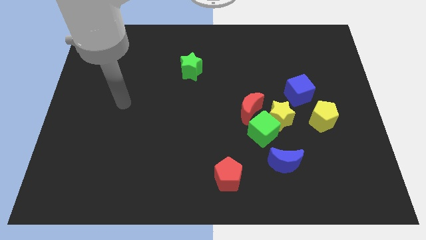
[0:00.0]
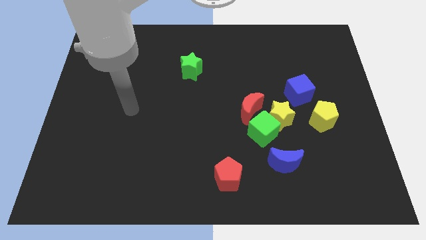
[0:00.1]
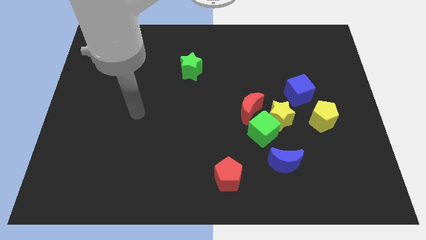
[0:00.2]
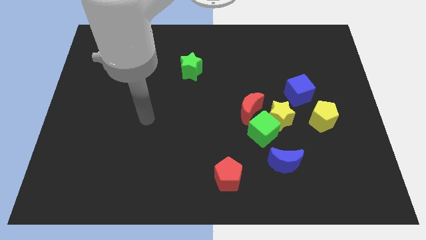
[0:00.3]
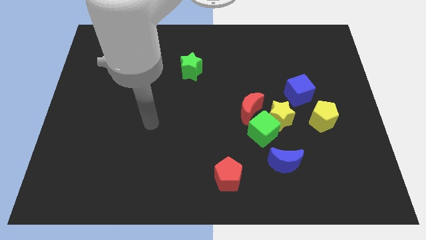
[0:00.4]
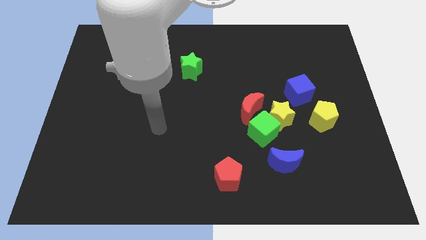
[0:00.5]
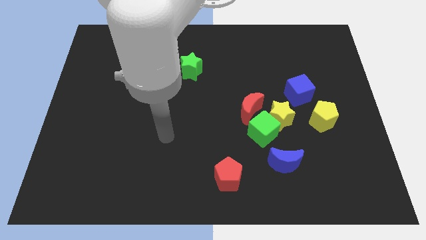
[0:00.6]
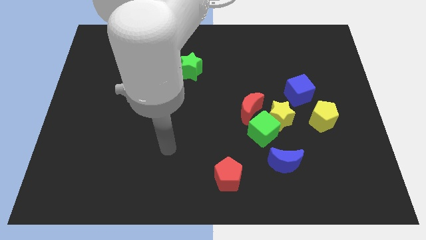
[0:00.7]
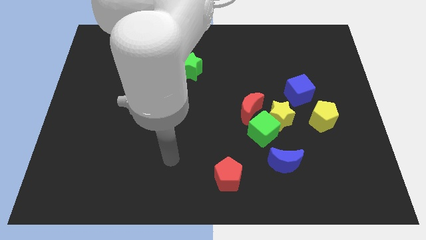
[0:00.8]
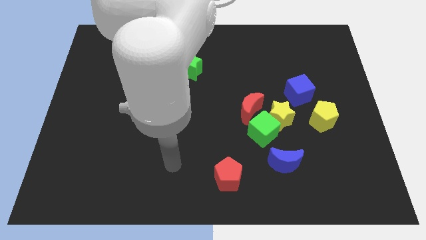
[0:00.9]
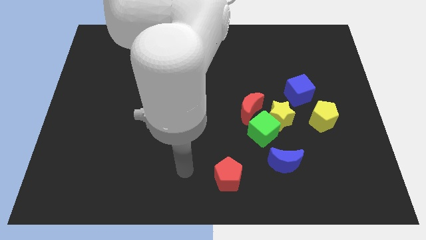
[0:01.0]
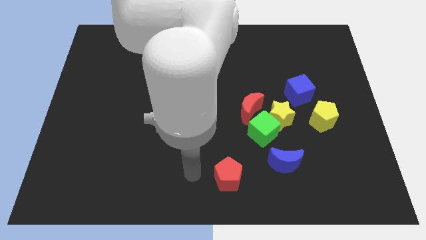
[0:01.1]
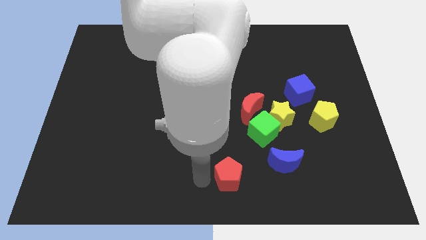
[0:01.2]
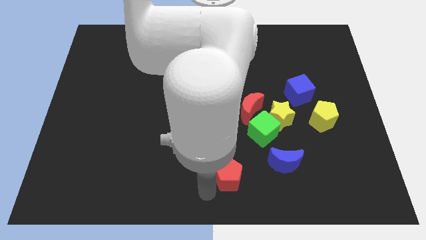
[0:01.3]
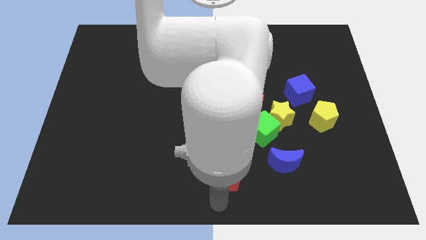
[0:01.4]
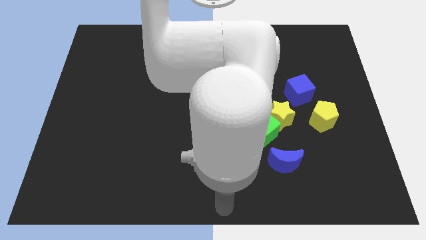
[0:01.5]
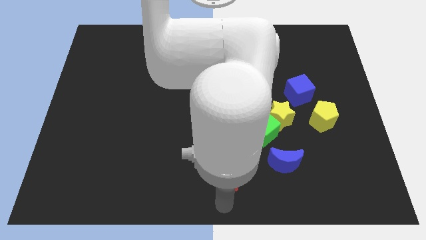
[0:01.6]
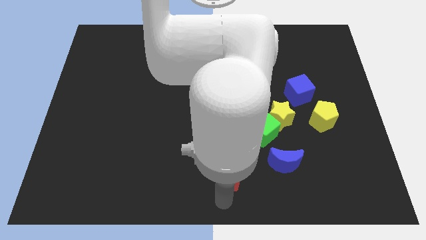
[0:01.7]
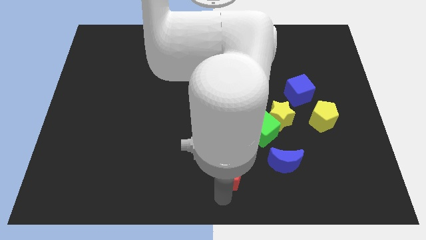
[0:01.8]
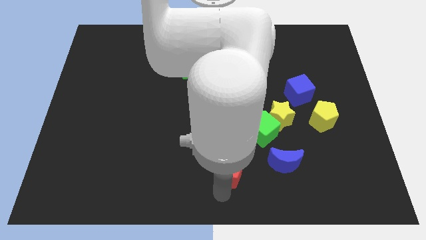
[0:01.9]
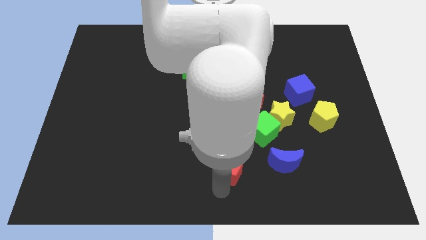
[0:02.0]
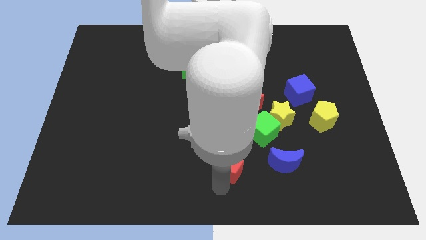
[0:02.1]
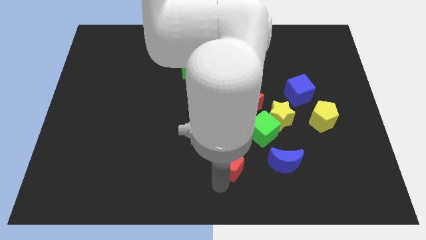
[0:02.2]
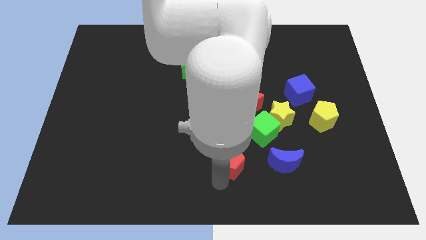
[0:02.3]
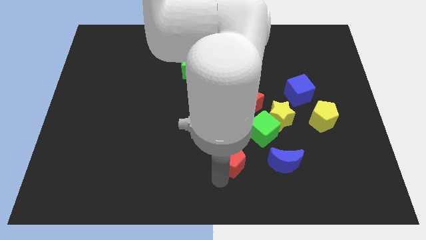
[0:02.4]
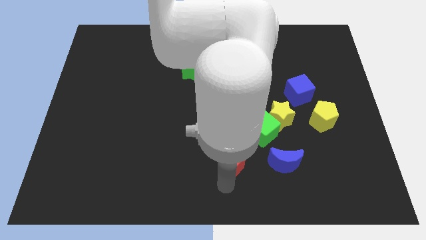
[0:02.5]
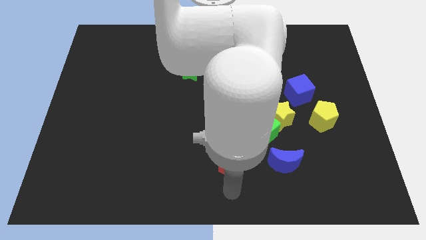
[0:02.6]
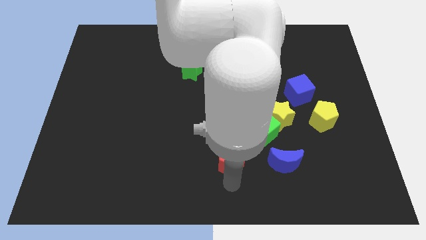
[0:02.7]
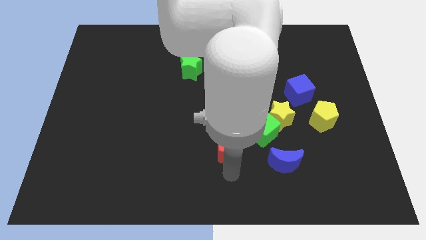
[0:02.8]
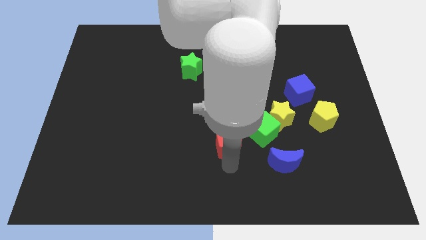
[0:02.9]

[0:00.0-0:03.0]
slightly slide the red pentagon upwards

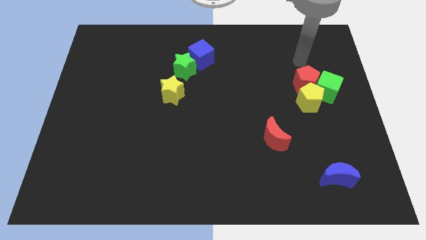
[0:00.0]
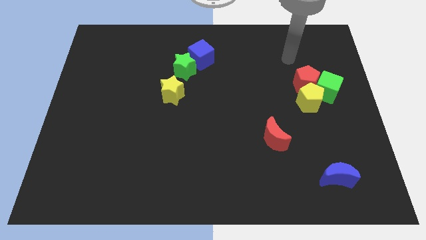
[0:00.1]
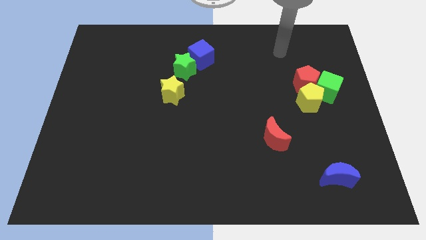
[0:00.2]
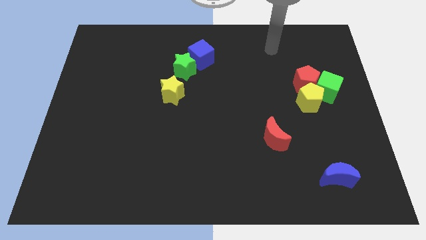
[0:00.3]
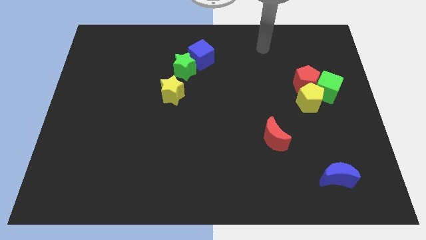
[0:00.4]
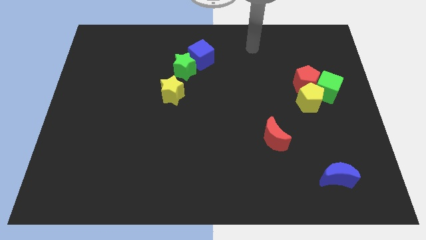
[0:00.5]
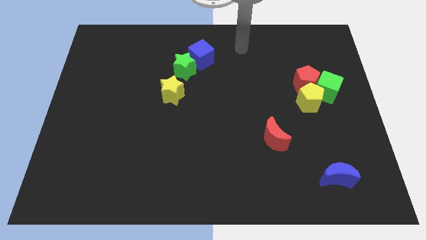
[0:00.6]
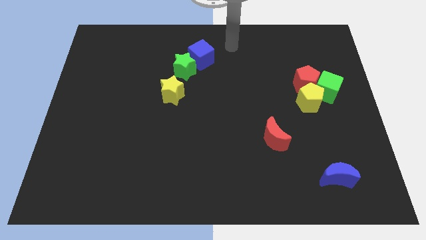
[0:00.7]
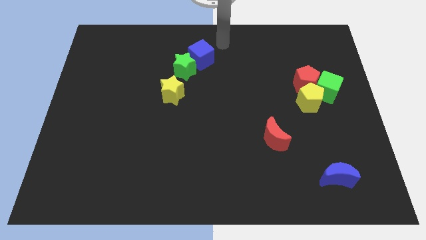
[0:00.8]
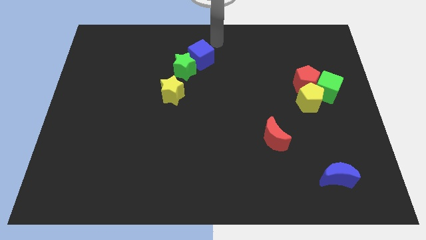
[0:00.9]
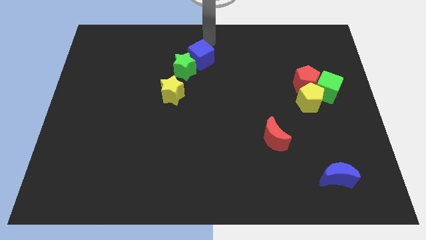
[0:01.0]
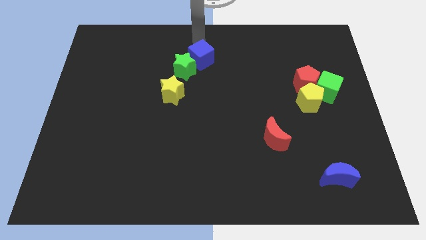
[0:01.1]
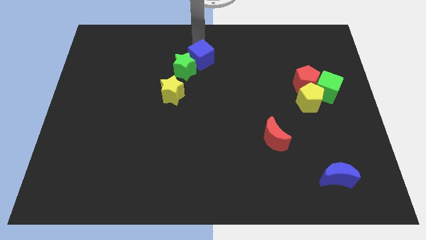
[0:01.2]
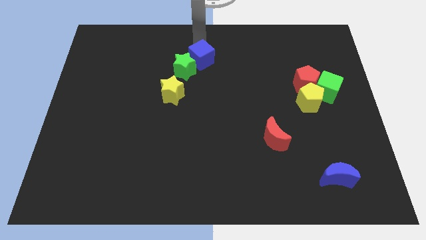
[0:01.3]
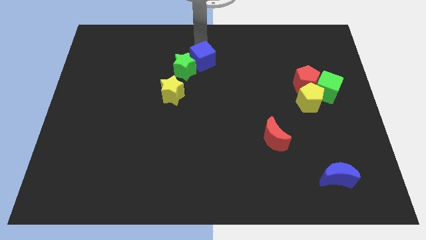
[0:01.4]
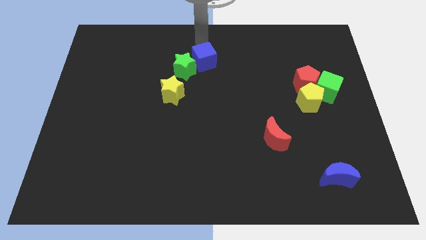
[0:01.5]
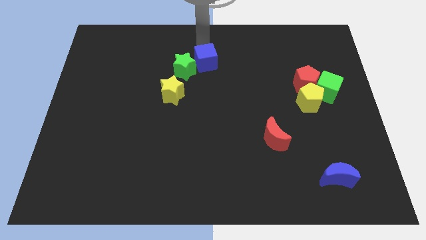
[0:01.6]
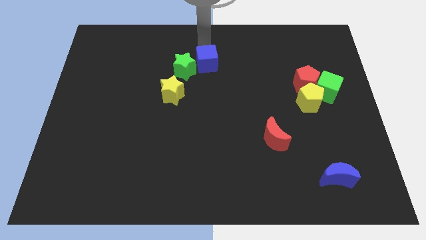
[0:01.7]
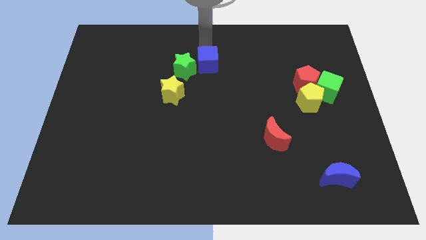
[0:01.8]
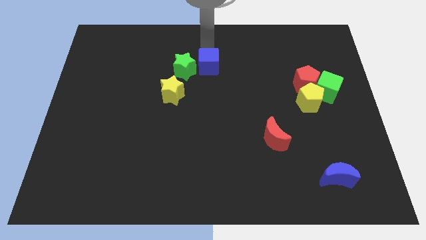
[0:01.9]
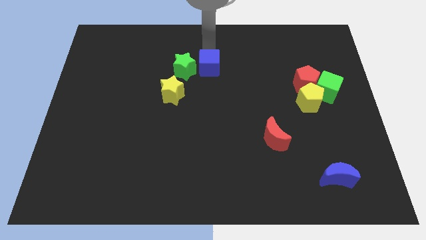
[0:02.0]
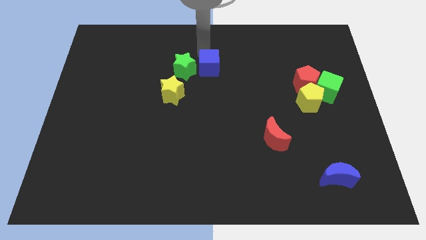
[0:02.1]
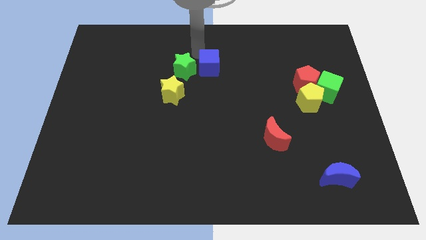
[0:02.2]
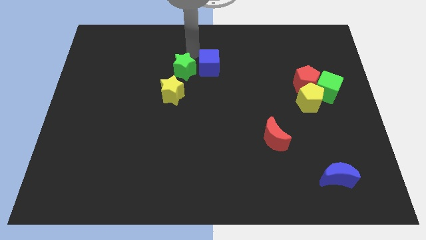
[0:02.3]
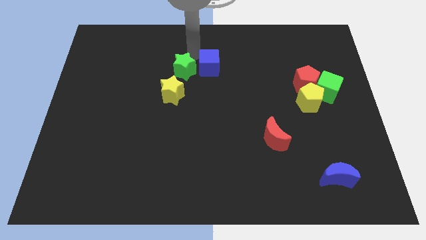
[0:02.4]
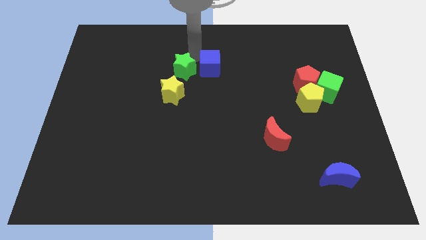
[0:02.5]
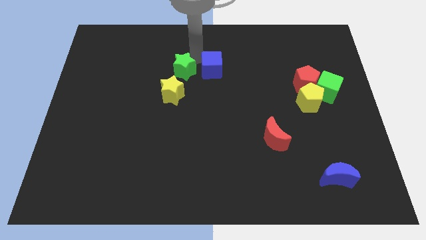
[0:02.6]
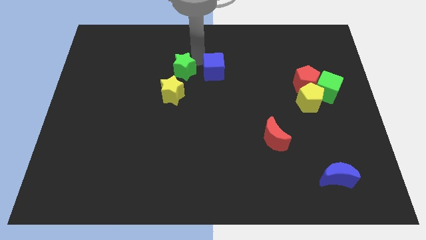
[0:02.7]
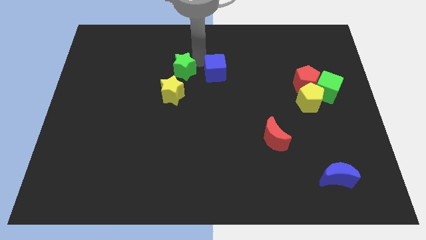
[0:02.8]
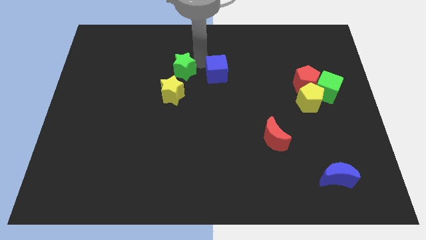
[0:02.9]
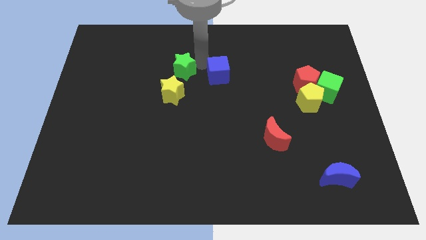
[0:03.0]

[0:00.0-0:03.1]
move the blue cube slightly downwards and right diagonally

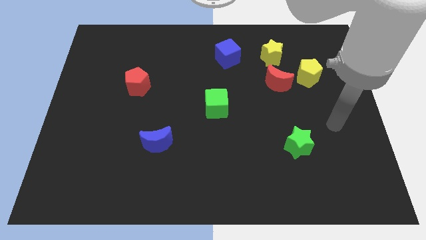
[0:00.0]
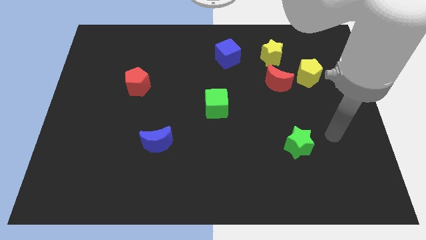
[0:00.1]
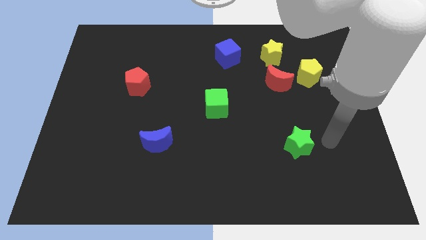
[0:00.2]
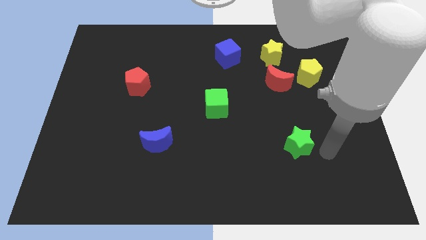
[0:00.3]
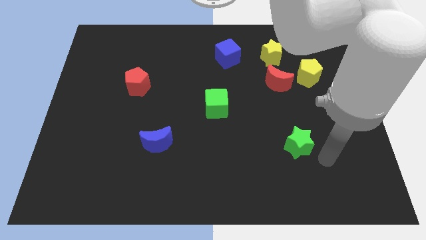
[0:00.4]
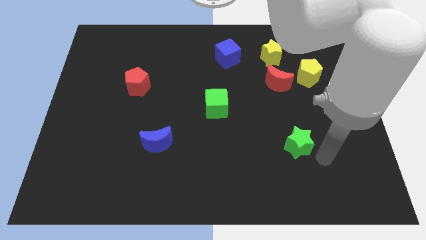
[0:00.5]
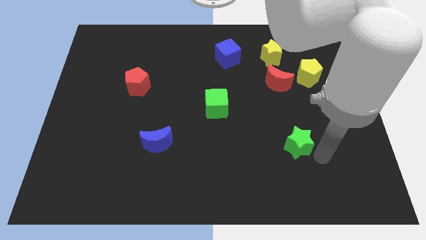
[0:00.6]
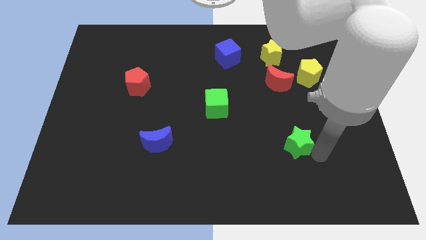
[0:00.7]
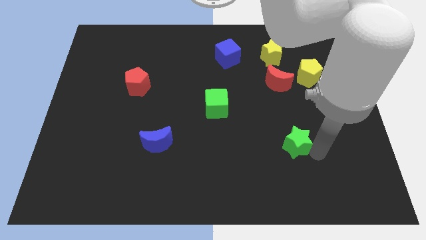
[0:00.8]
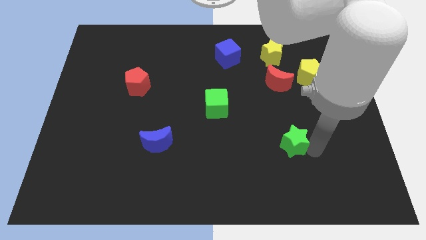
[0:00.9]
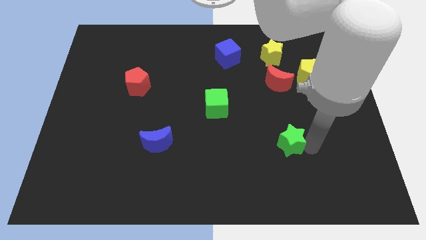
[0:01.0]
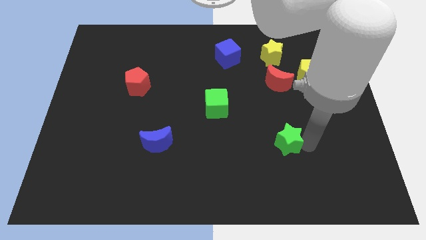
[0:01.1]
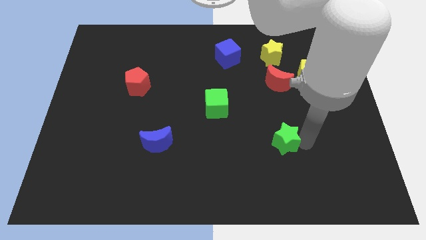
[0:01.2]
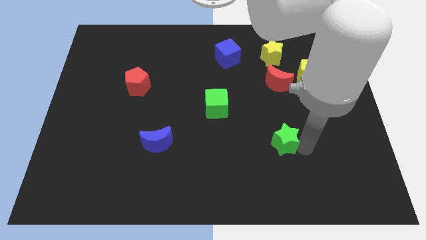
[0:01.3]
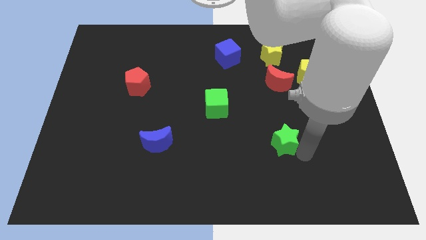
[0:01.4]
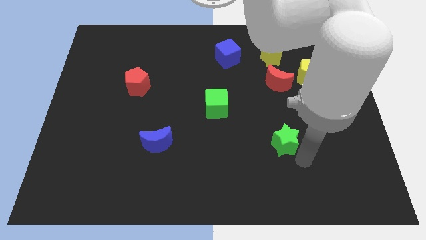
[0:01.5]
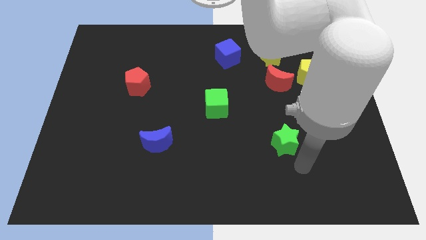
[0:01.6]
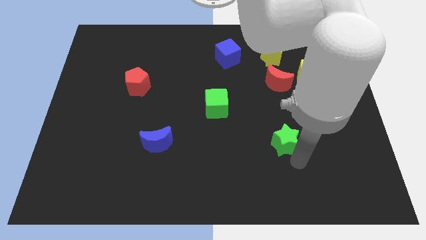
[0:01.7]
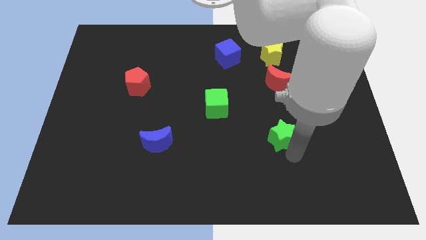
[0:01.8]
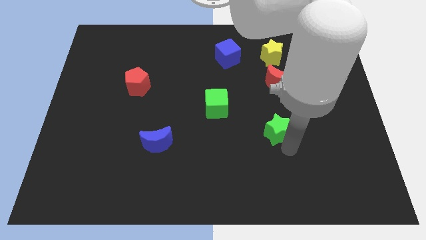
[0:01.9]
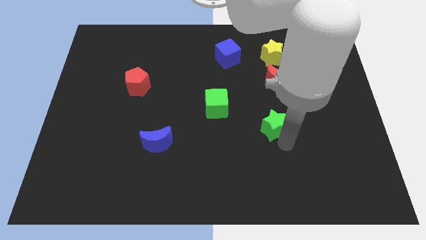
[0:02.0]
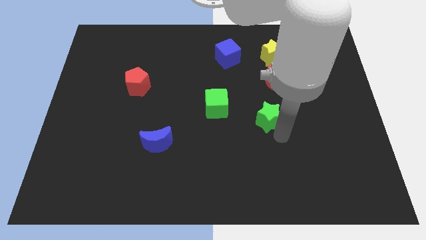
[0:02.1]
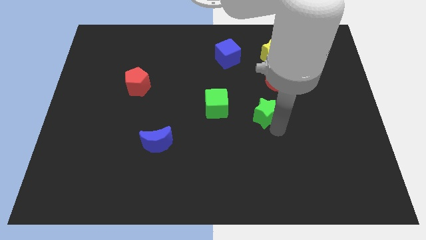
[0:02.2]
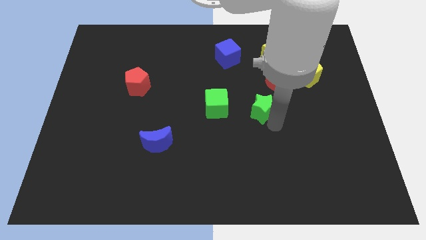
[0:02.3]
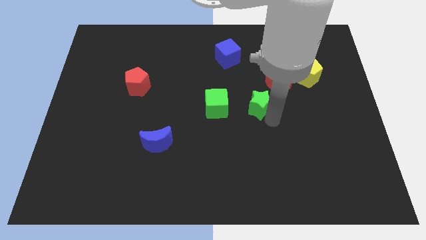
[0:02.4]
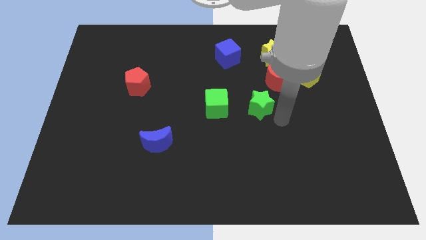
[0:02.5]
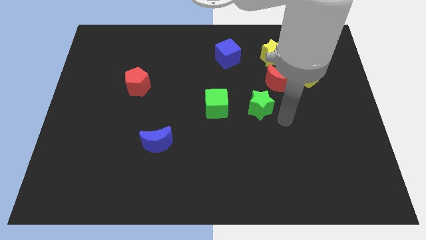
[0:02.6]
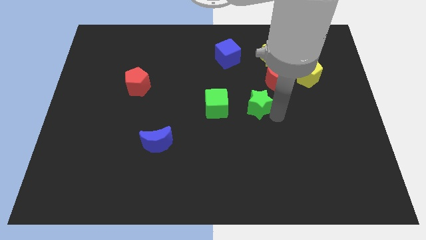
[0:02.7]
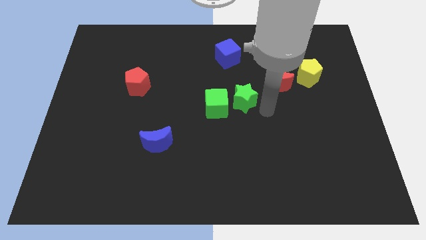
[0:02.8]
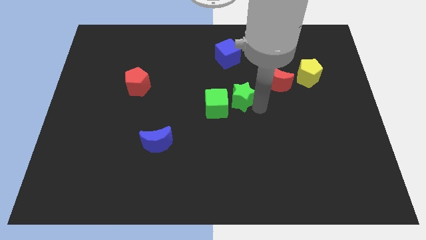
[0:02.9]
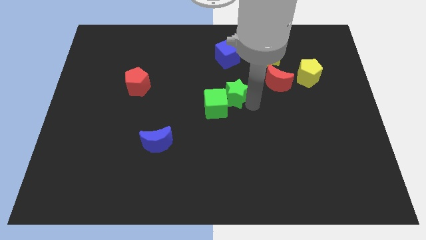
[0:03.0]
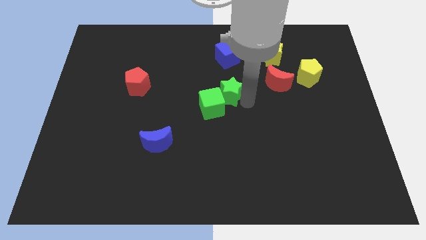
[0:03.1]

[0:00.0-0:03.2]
push the green star upwards and to the left diagonally
